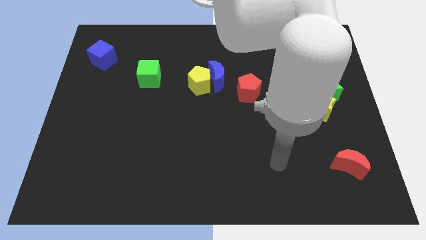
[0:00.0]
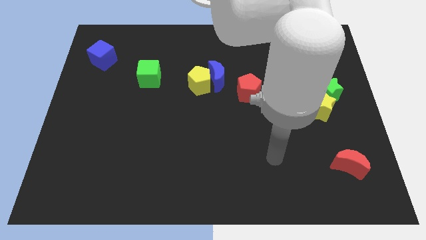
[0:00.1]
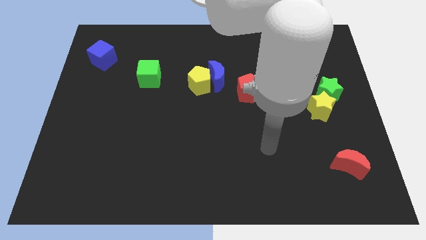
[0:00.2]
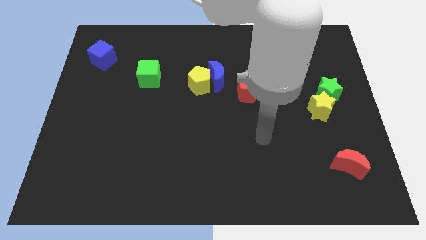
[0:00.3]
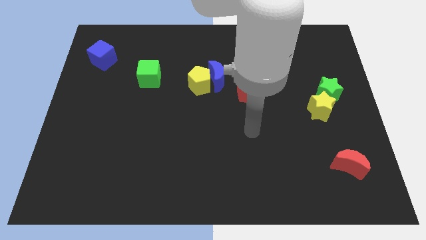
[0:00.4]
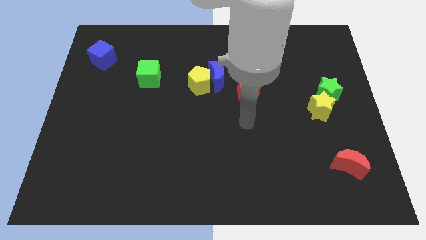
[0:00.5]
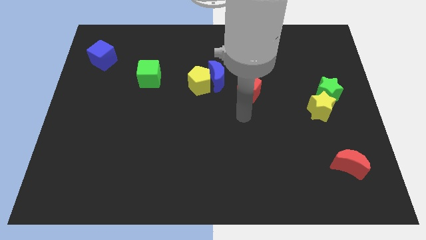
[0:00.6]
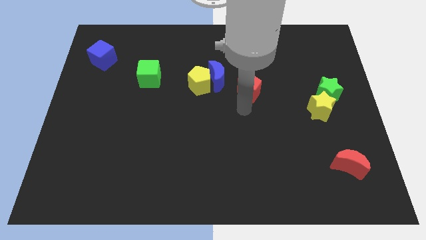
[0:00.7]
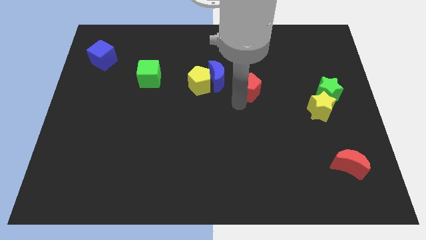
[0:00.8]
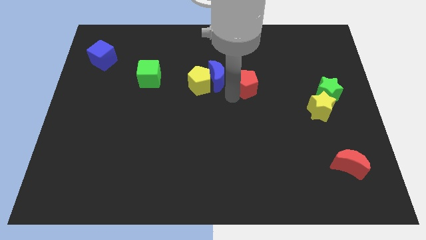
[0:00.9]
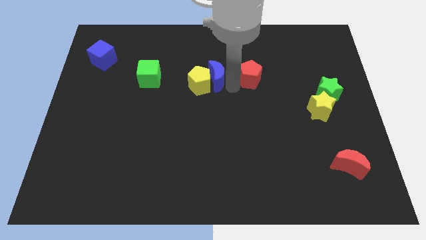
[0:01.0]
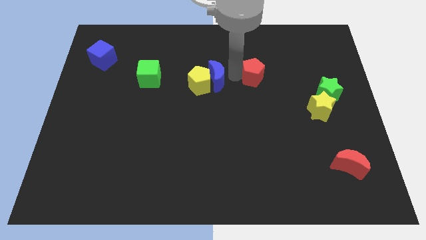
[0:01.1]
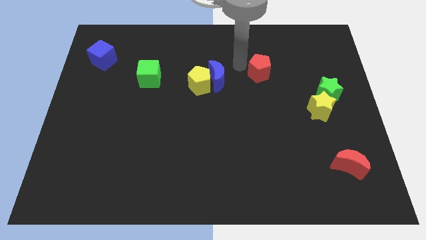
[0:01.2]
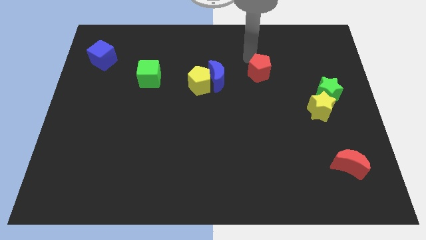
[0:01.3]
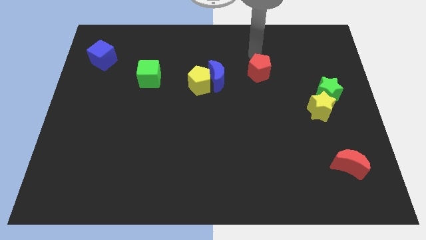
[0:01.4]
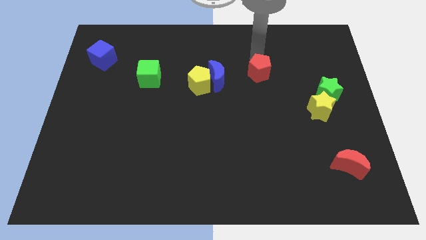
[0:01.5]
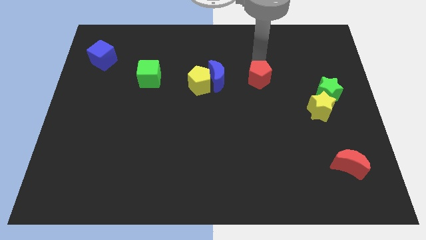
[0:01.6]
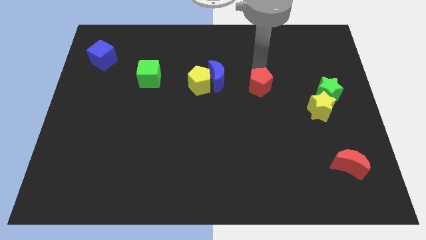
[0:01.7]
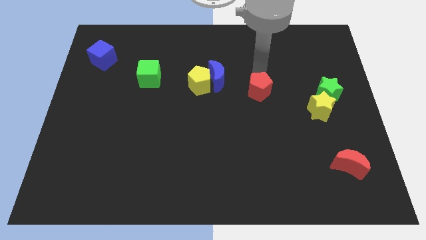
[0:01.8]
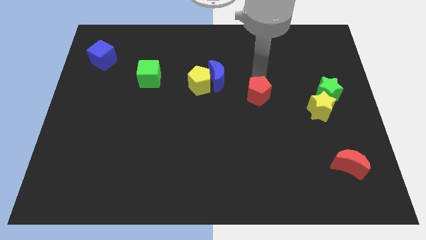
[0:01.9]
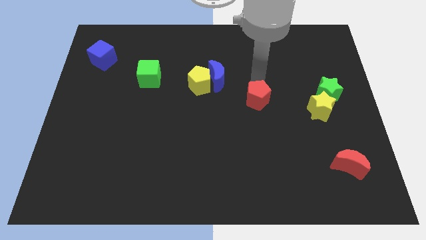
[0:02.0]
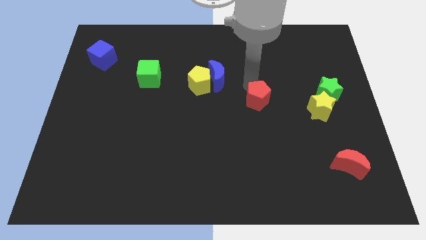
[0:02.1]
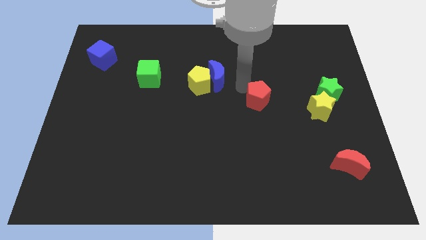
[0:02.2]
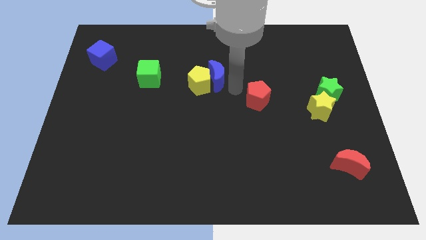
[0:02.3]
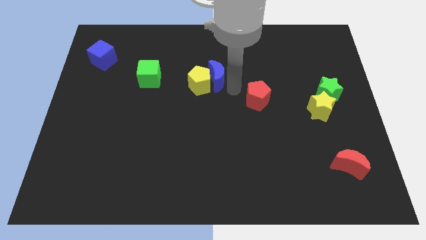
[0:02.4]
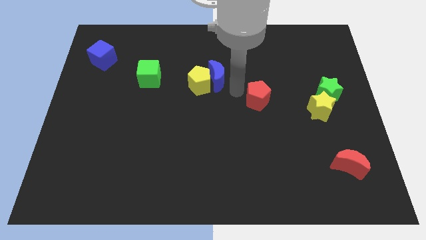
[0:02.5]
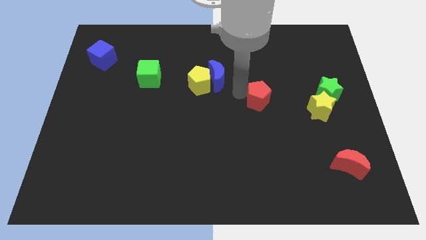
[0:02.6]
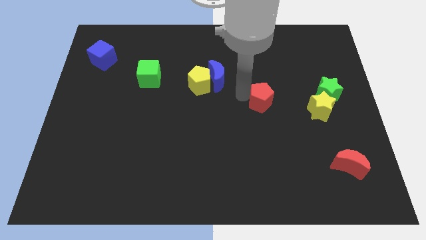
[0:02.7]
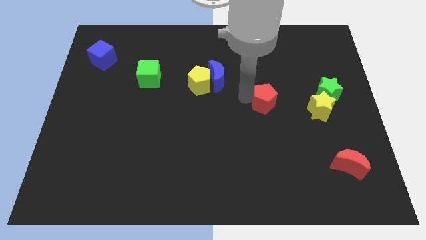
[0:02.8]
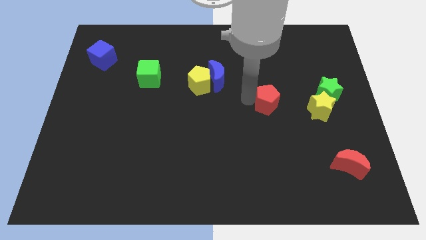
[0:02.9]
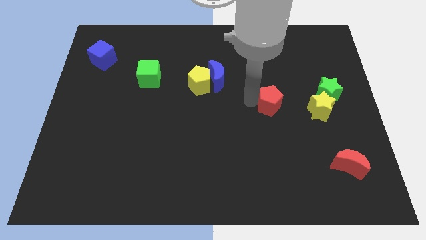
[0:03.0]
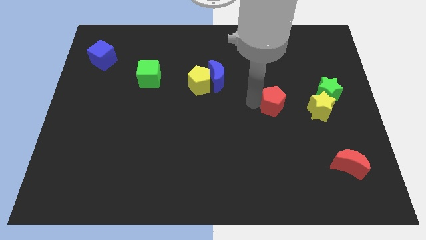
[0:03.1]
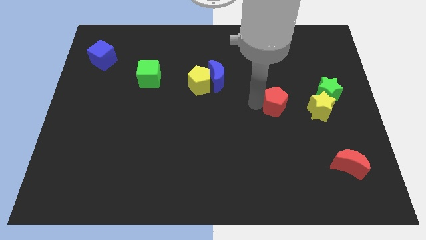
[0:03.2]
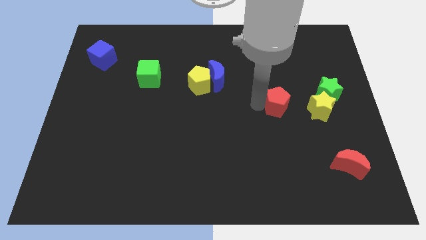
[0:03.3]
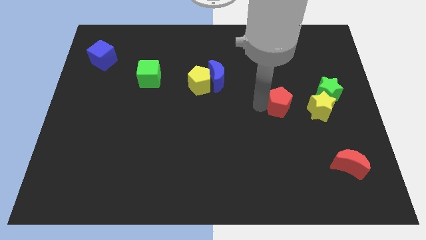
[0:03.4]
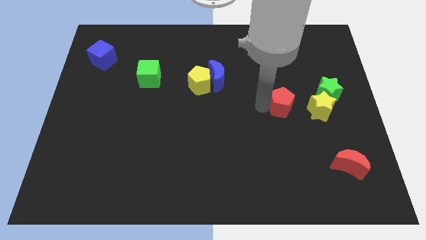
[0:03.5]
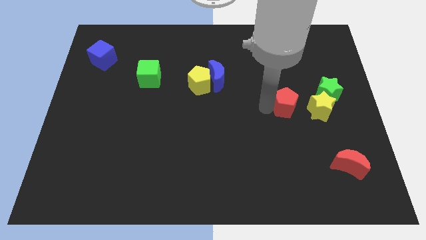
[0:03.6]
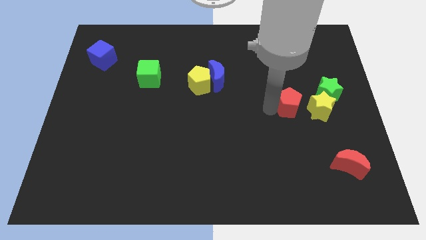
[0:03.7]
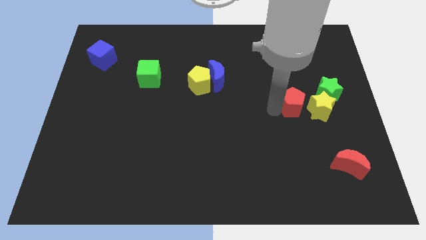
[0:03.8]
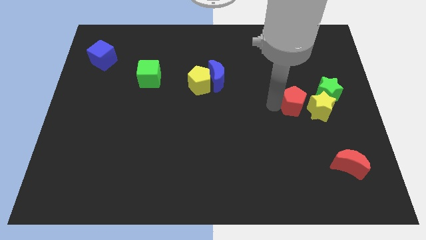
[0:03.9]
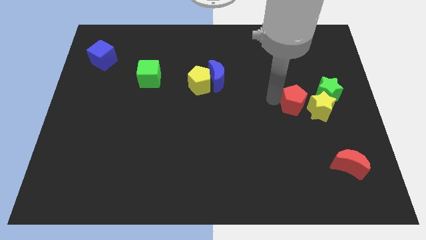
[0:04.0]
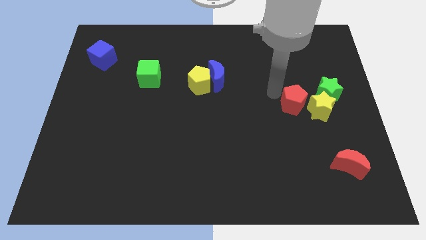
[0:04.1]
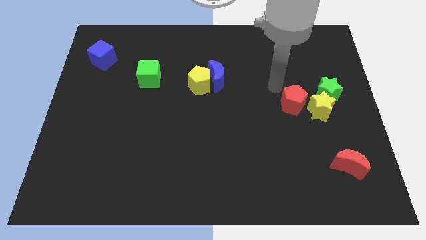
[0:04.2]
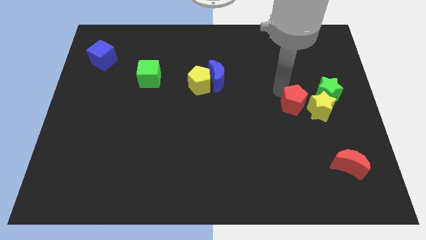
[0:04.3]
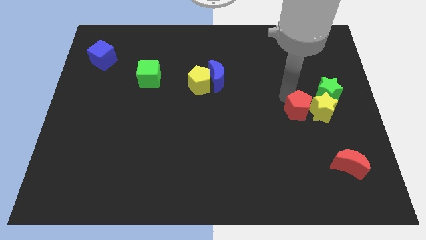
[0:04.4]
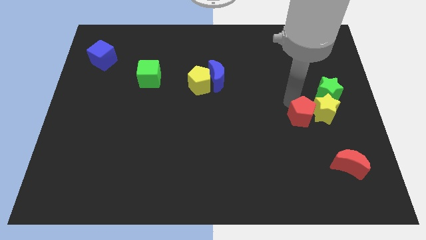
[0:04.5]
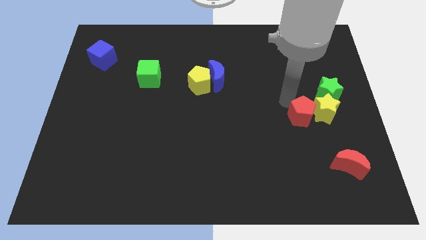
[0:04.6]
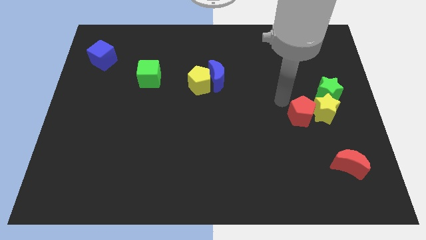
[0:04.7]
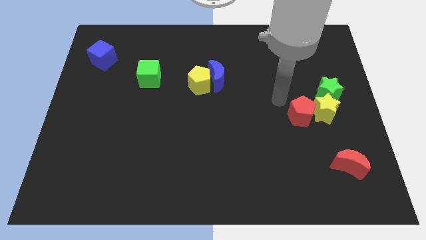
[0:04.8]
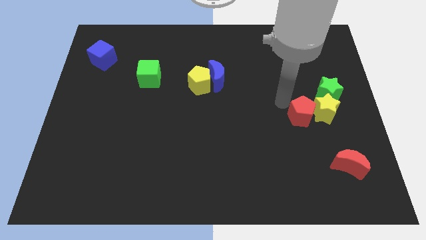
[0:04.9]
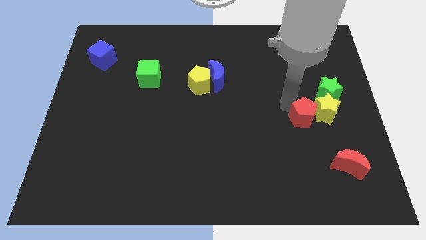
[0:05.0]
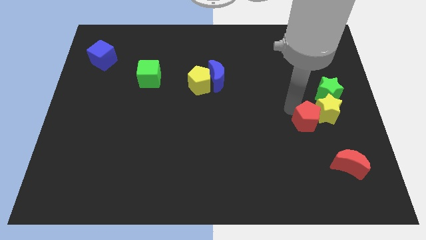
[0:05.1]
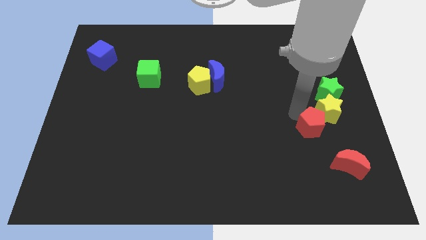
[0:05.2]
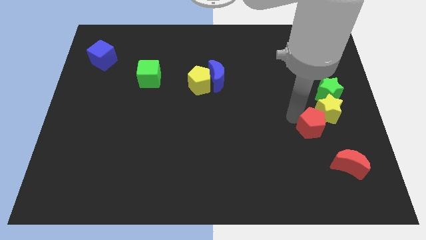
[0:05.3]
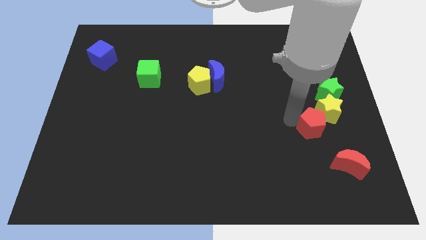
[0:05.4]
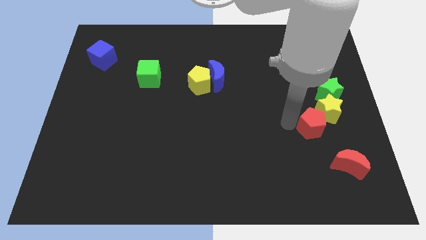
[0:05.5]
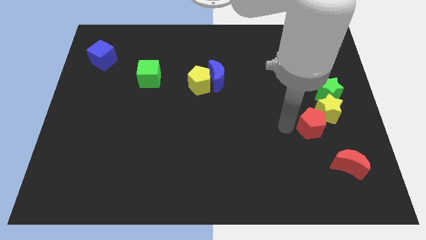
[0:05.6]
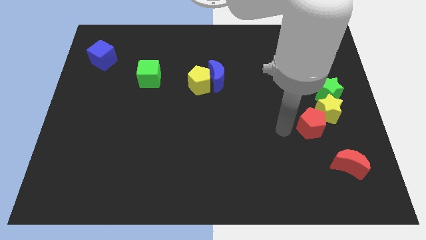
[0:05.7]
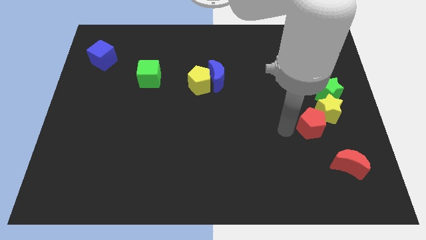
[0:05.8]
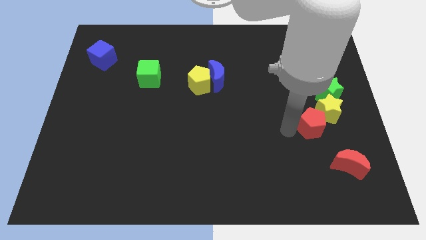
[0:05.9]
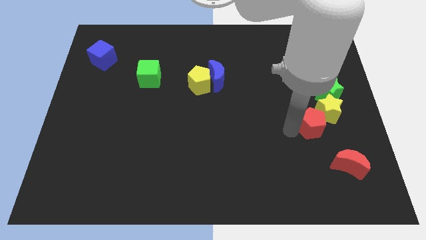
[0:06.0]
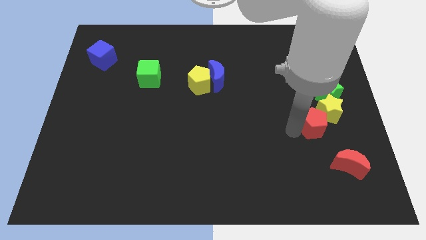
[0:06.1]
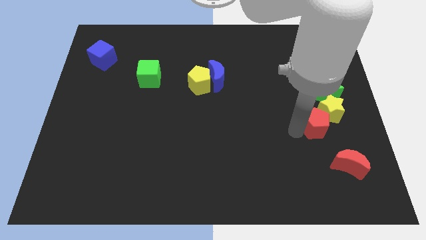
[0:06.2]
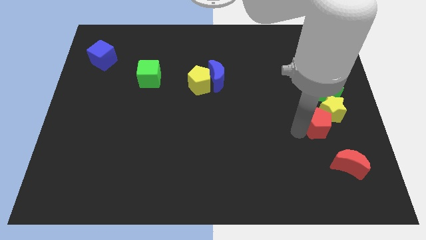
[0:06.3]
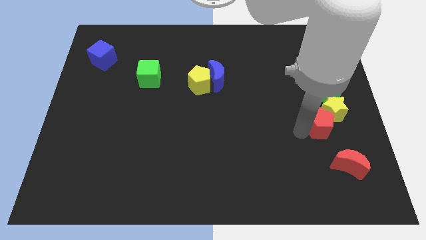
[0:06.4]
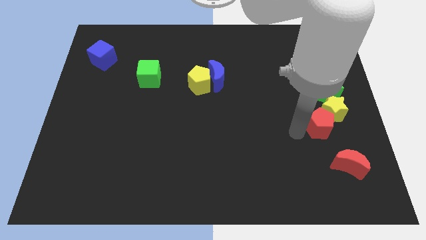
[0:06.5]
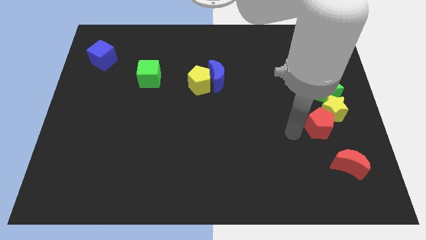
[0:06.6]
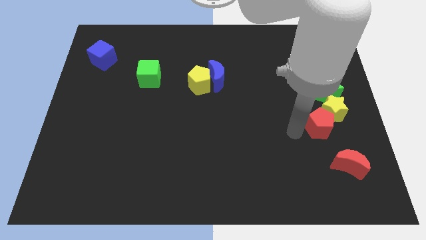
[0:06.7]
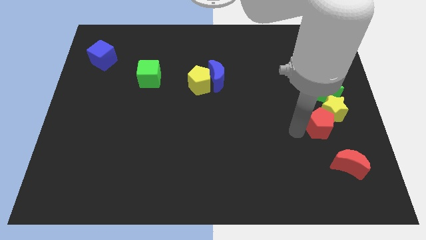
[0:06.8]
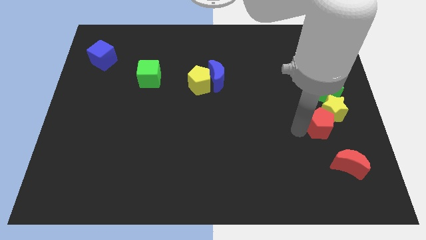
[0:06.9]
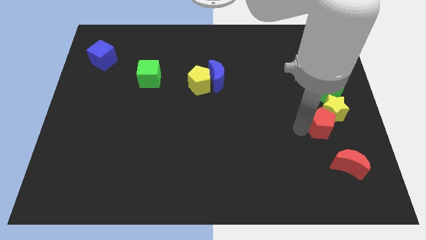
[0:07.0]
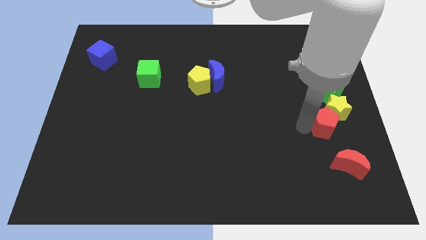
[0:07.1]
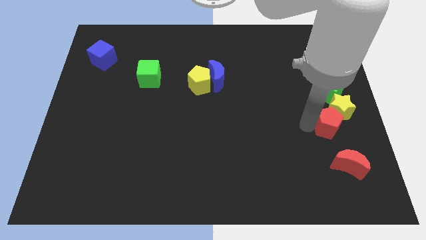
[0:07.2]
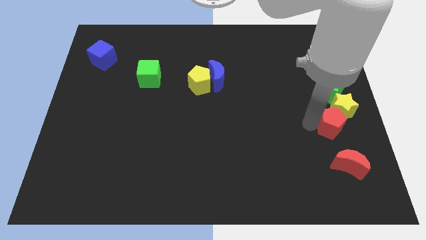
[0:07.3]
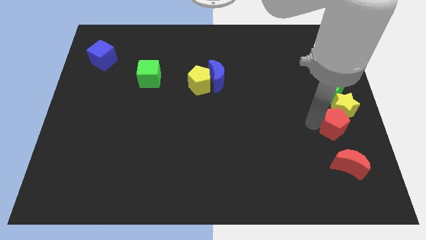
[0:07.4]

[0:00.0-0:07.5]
move the red pentagon to the center right
